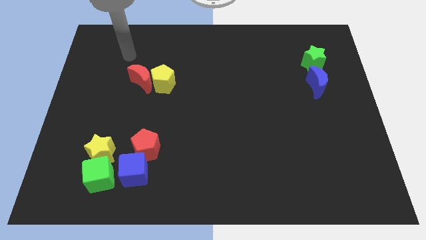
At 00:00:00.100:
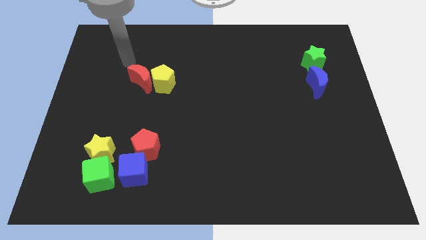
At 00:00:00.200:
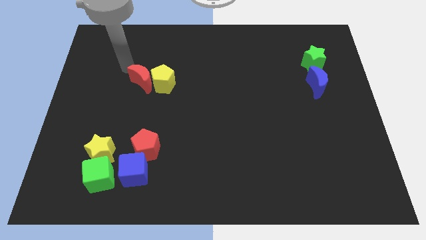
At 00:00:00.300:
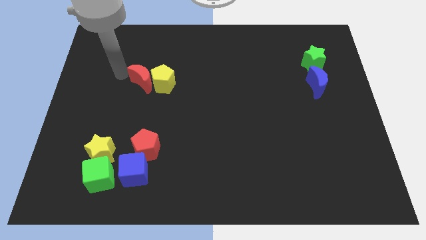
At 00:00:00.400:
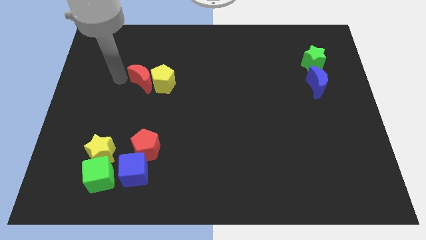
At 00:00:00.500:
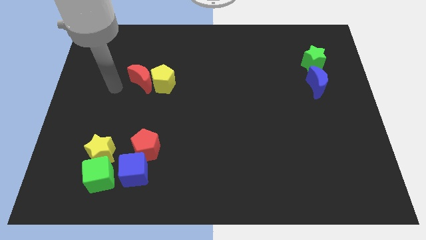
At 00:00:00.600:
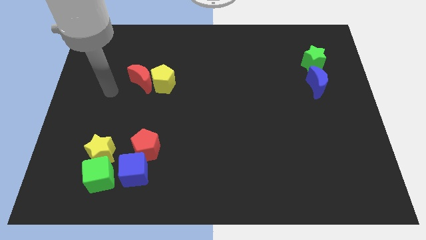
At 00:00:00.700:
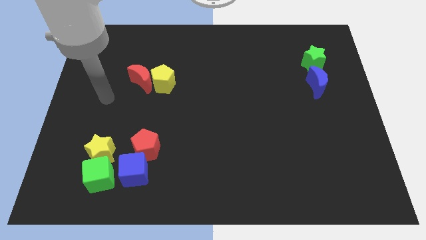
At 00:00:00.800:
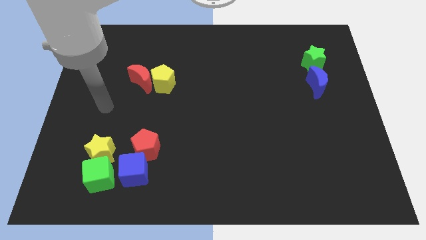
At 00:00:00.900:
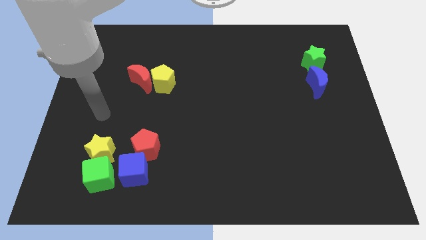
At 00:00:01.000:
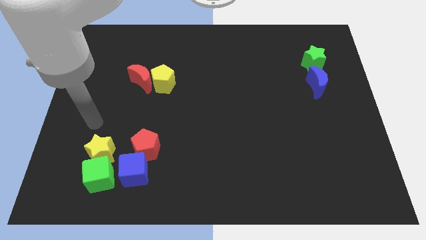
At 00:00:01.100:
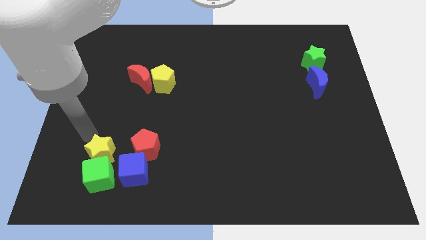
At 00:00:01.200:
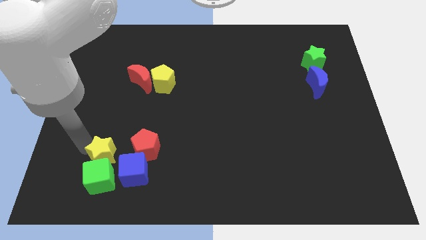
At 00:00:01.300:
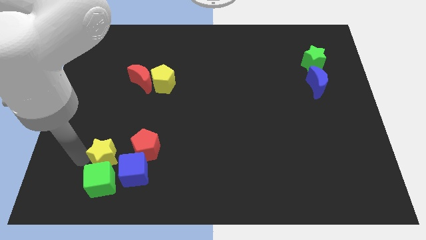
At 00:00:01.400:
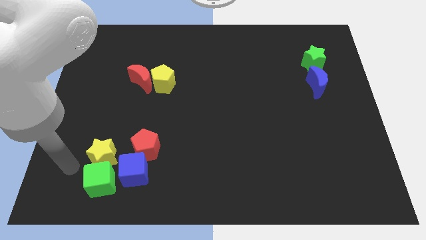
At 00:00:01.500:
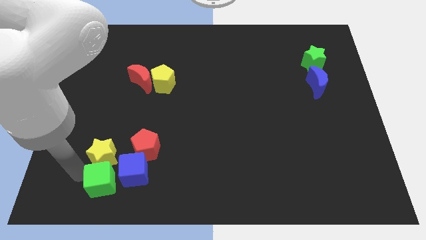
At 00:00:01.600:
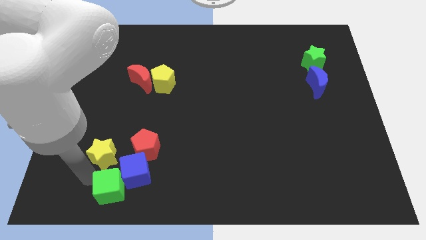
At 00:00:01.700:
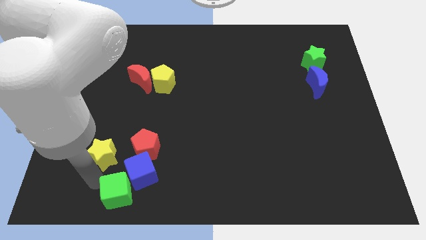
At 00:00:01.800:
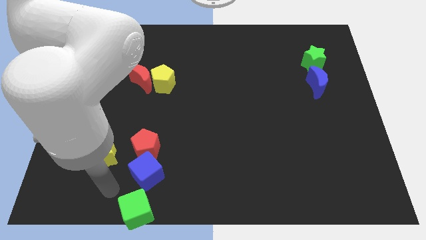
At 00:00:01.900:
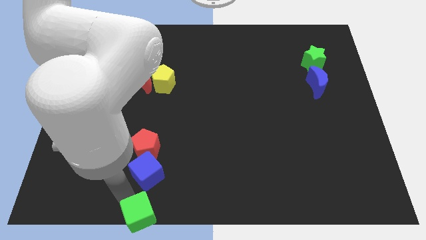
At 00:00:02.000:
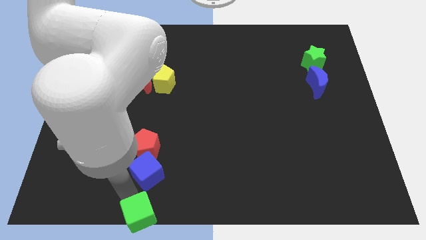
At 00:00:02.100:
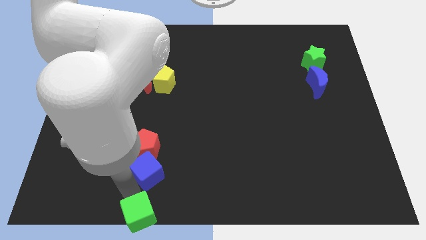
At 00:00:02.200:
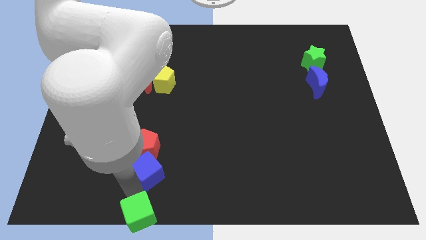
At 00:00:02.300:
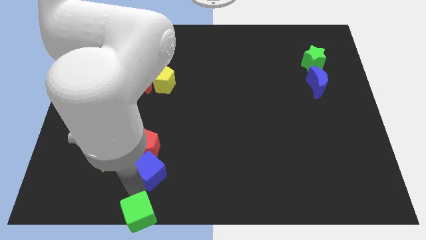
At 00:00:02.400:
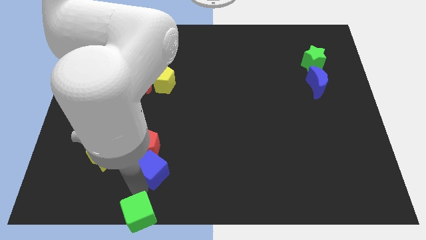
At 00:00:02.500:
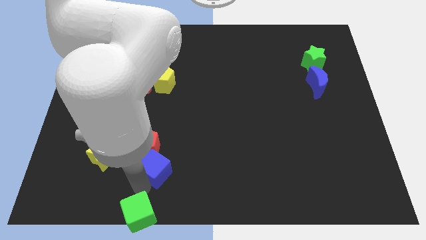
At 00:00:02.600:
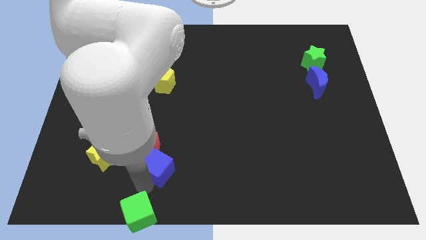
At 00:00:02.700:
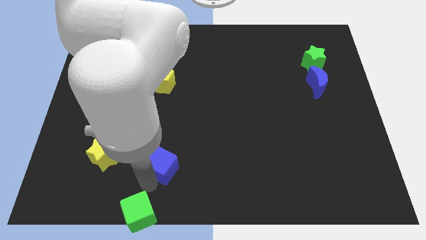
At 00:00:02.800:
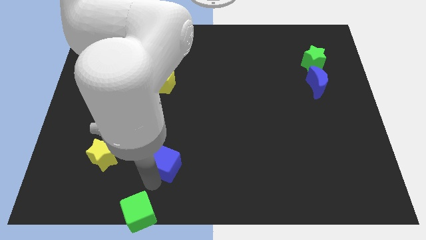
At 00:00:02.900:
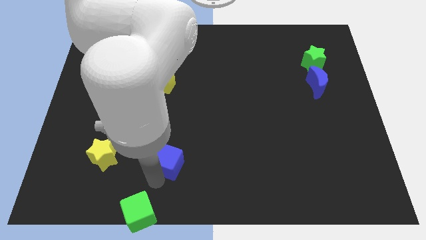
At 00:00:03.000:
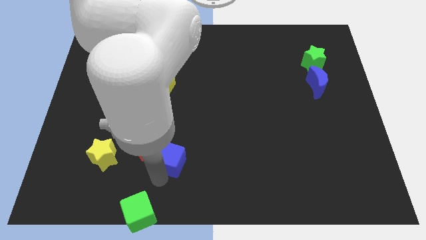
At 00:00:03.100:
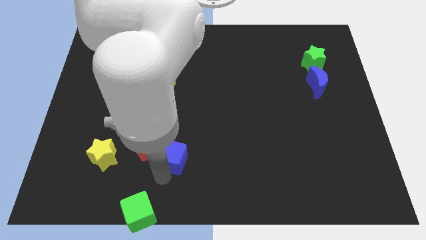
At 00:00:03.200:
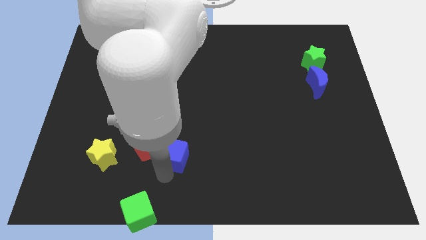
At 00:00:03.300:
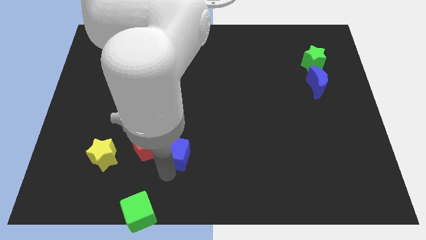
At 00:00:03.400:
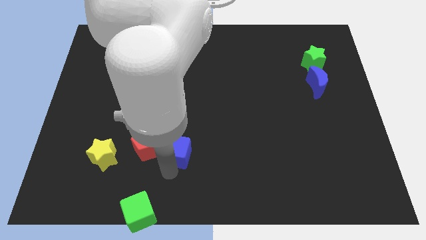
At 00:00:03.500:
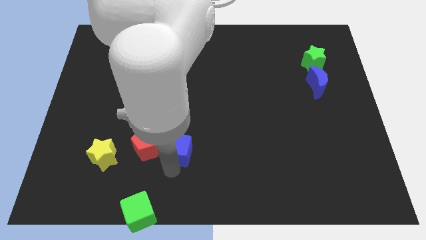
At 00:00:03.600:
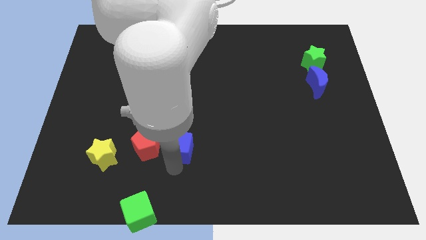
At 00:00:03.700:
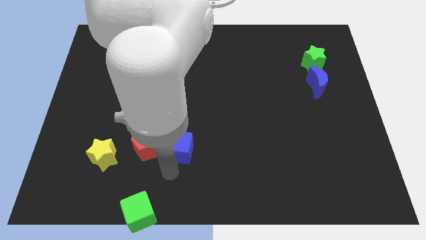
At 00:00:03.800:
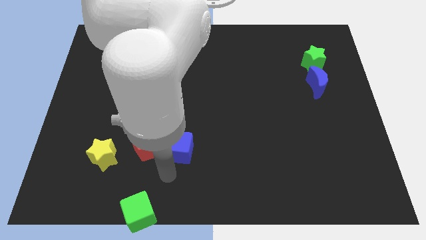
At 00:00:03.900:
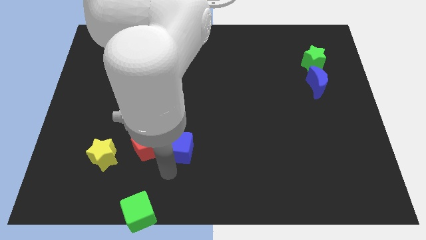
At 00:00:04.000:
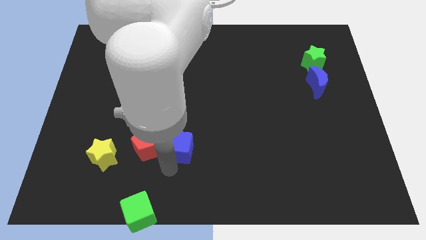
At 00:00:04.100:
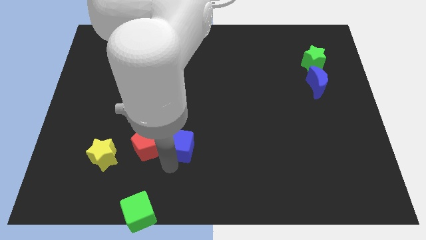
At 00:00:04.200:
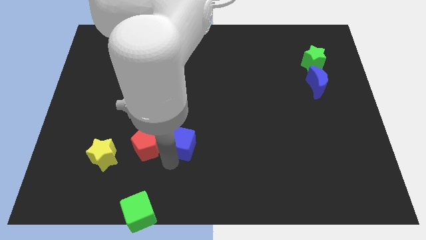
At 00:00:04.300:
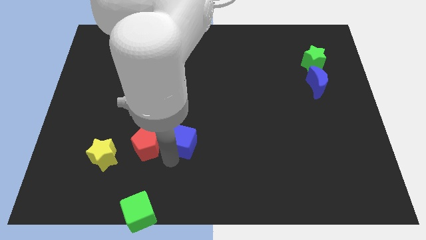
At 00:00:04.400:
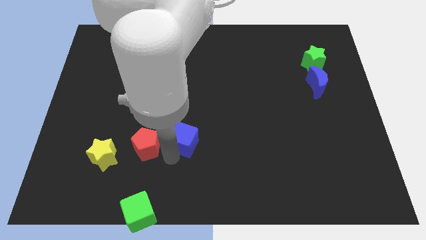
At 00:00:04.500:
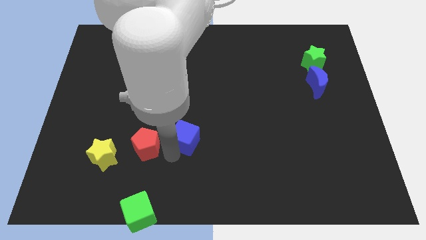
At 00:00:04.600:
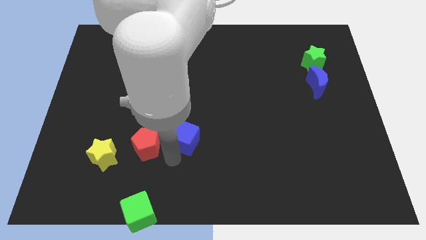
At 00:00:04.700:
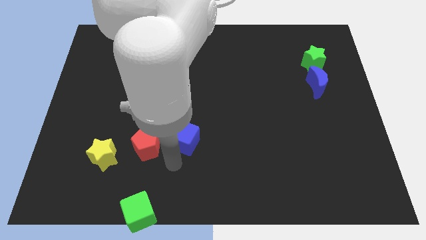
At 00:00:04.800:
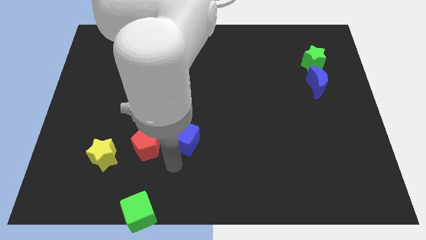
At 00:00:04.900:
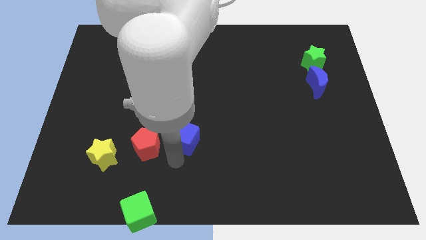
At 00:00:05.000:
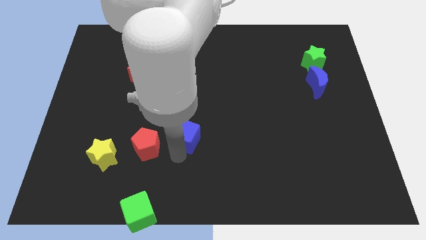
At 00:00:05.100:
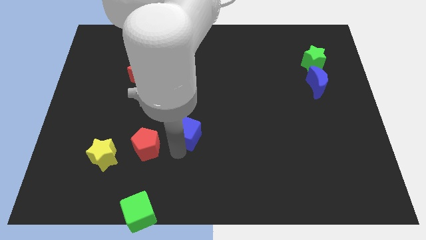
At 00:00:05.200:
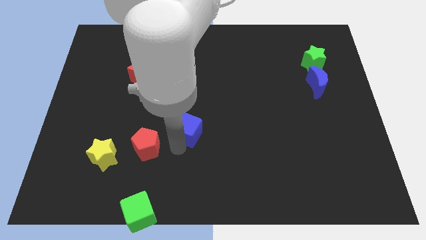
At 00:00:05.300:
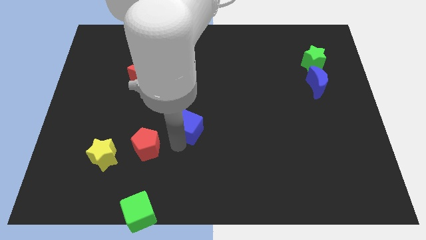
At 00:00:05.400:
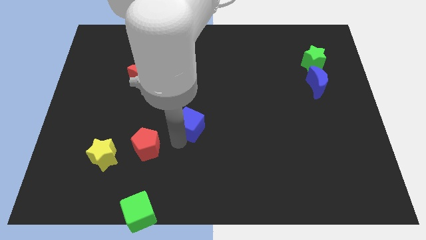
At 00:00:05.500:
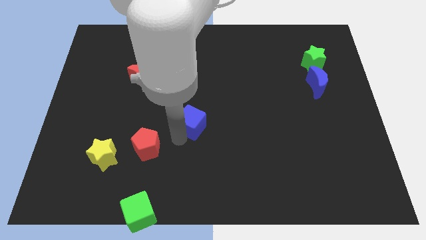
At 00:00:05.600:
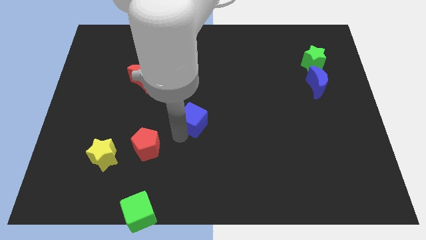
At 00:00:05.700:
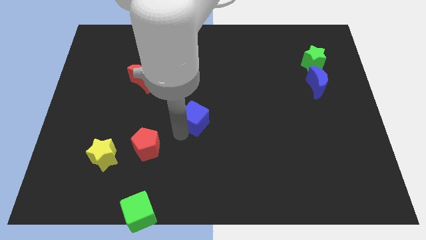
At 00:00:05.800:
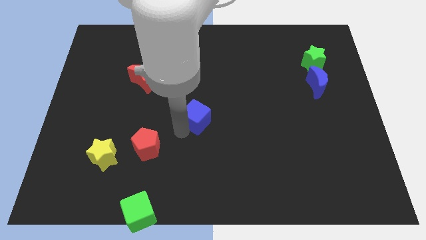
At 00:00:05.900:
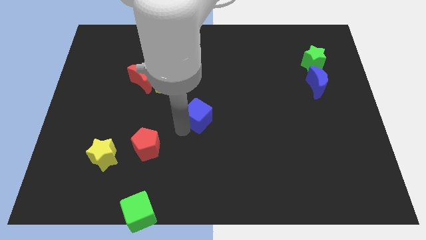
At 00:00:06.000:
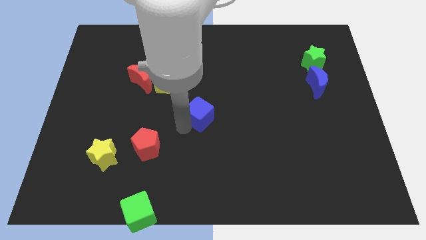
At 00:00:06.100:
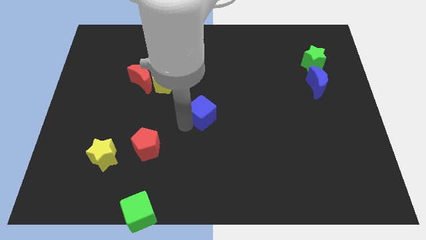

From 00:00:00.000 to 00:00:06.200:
push the blue cube upwards and then right

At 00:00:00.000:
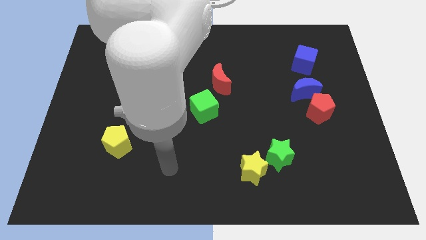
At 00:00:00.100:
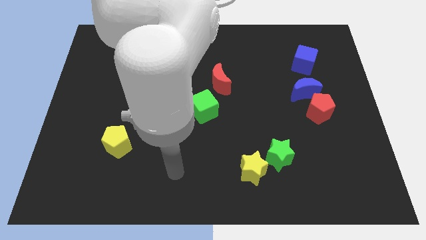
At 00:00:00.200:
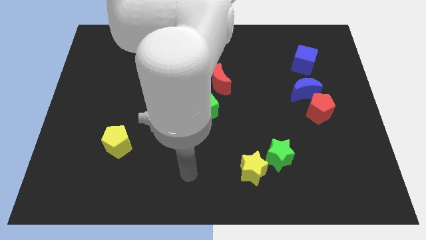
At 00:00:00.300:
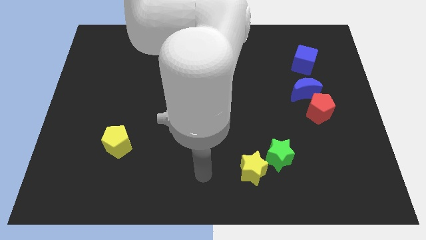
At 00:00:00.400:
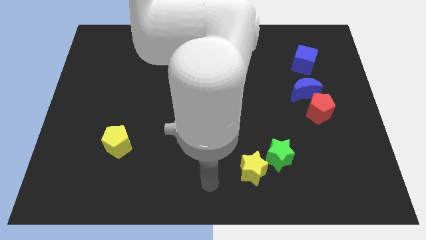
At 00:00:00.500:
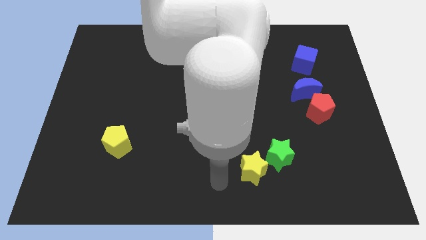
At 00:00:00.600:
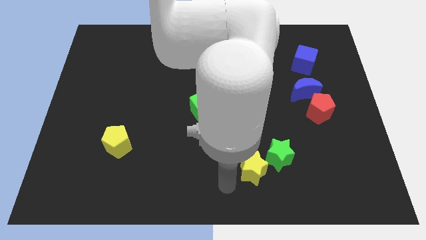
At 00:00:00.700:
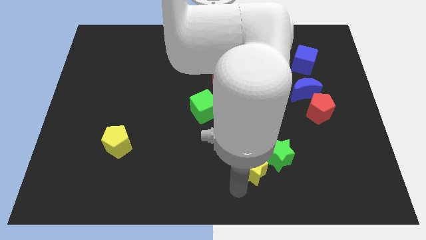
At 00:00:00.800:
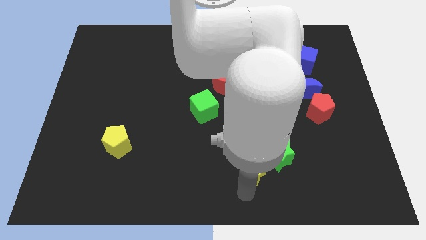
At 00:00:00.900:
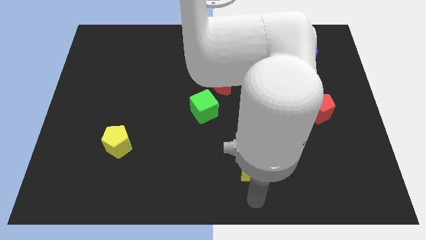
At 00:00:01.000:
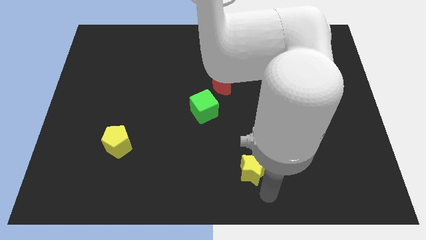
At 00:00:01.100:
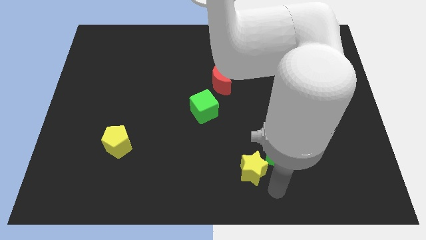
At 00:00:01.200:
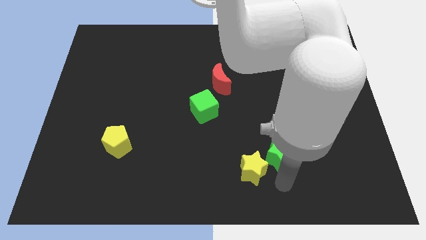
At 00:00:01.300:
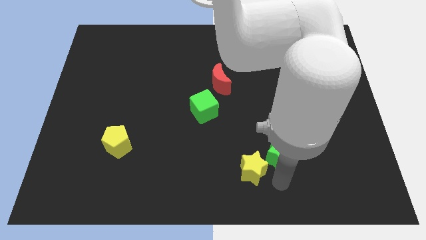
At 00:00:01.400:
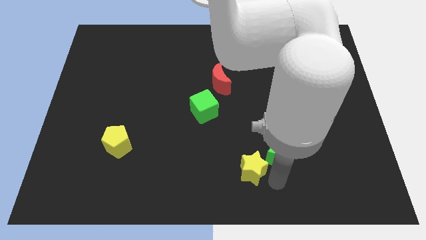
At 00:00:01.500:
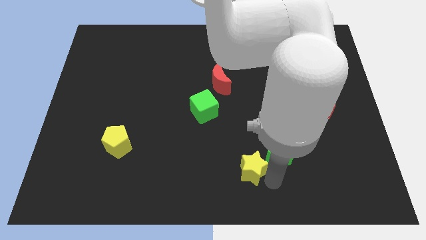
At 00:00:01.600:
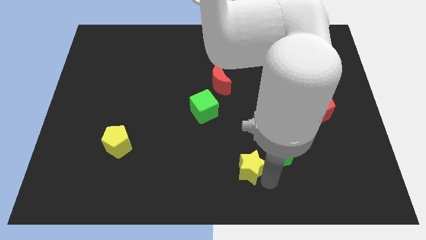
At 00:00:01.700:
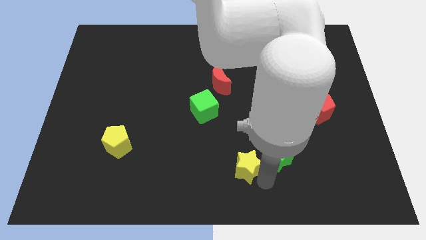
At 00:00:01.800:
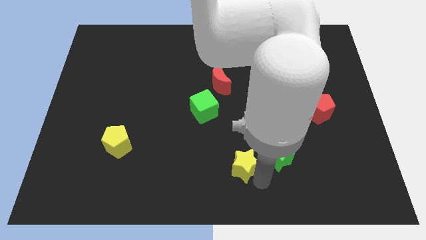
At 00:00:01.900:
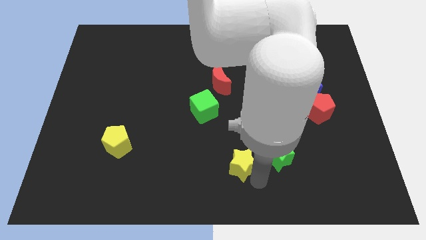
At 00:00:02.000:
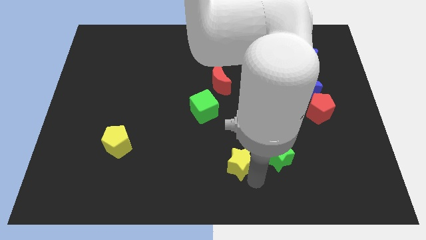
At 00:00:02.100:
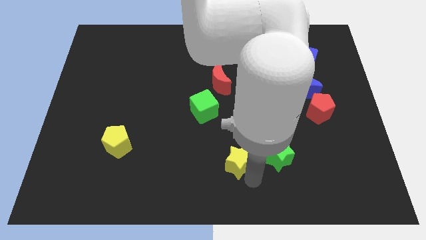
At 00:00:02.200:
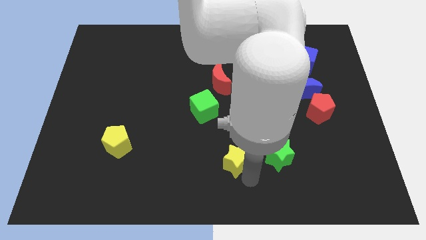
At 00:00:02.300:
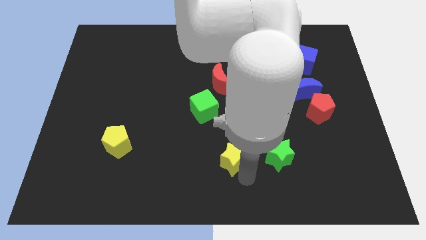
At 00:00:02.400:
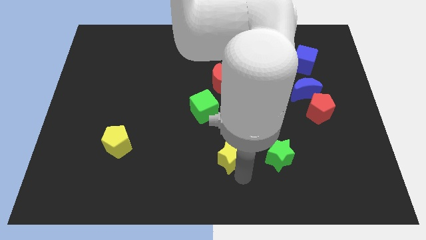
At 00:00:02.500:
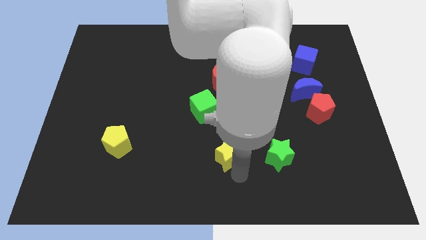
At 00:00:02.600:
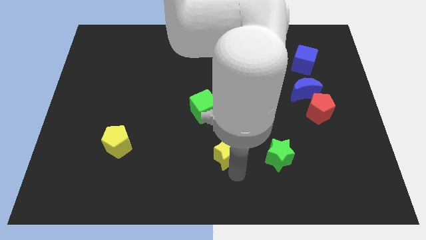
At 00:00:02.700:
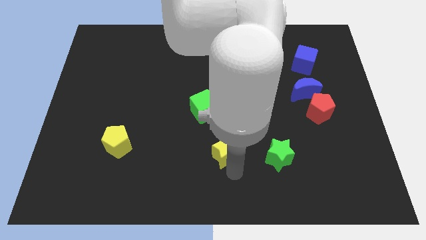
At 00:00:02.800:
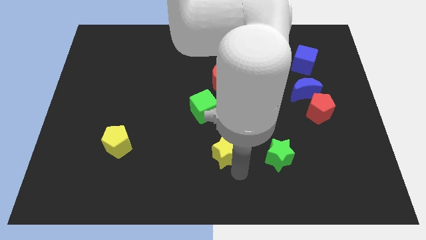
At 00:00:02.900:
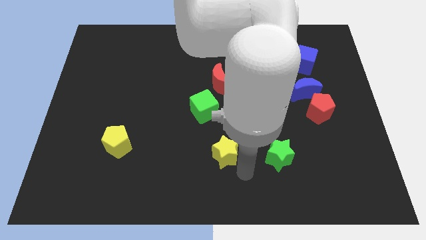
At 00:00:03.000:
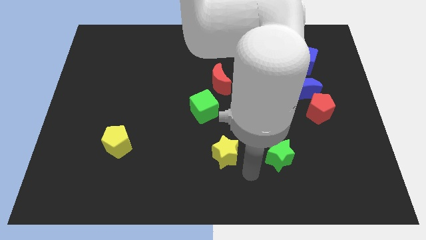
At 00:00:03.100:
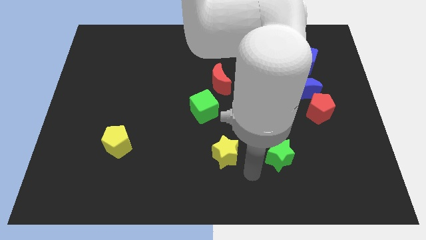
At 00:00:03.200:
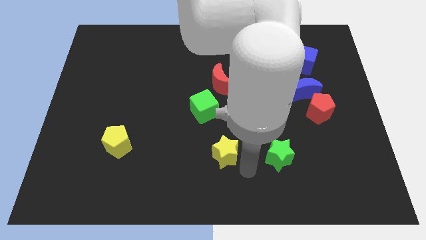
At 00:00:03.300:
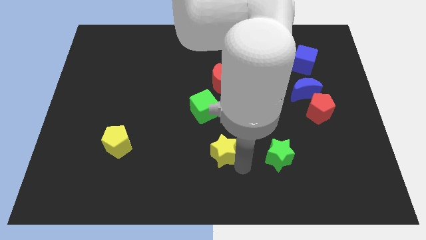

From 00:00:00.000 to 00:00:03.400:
slide the yellow star a little up and to the left diagonally
